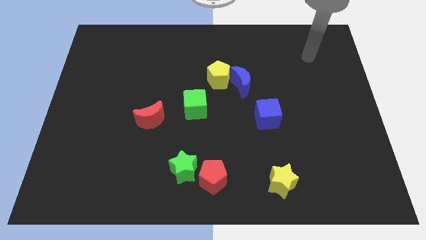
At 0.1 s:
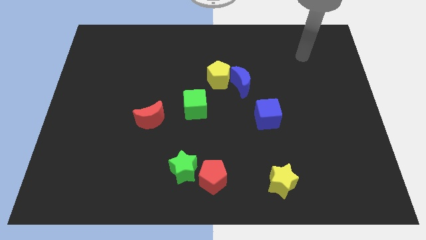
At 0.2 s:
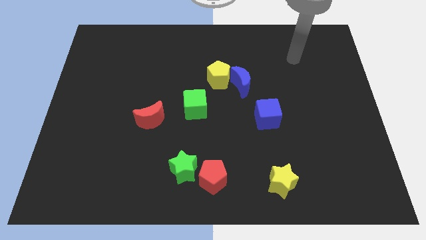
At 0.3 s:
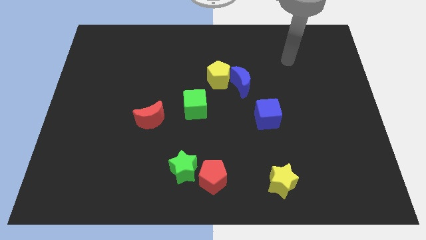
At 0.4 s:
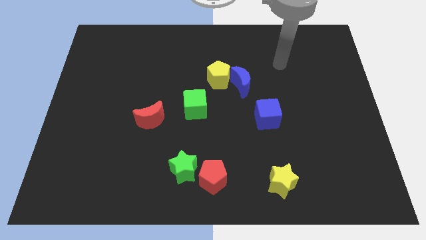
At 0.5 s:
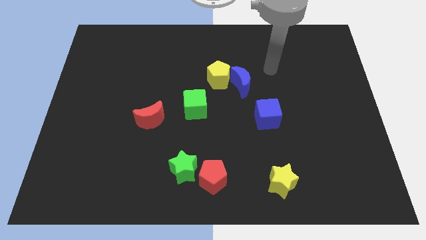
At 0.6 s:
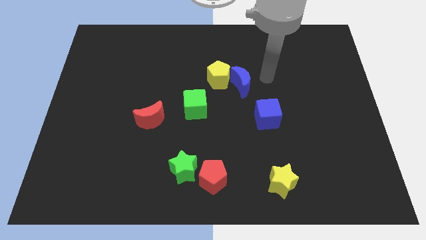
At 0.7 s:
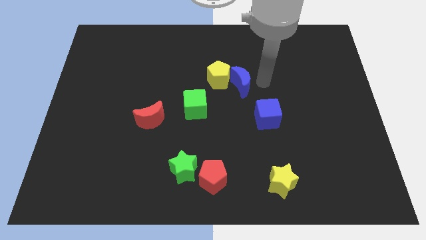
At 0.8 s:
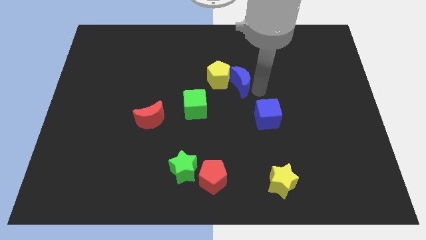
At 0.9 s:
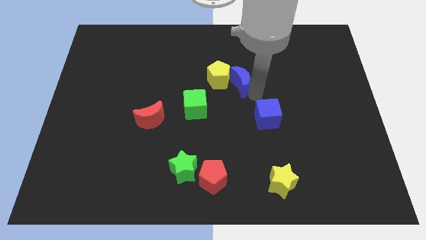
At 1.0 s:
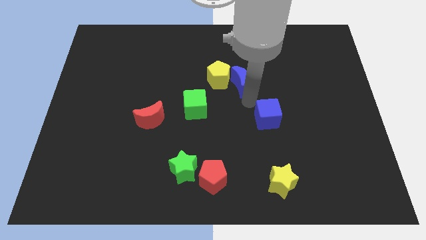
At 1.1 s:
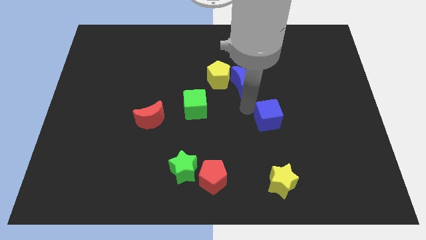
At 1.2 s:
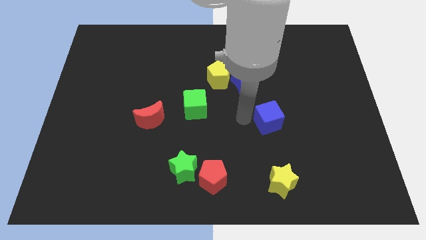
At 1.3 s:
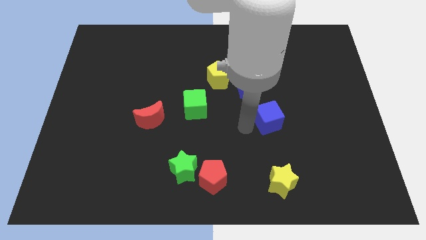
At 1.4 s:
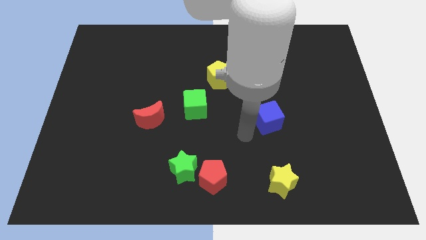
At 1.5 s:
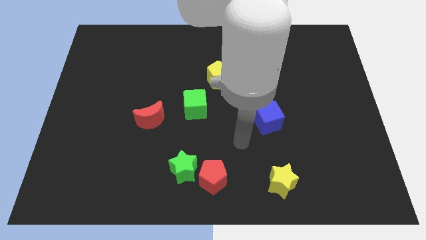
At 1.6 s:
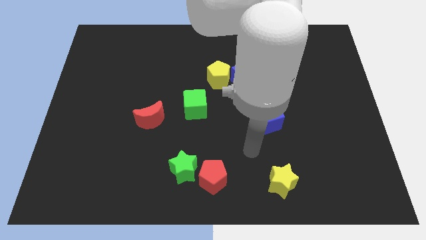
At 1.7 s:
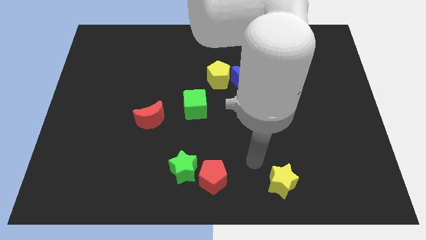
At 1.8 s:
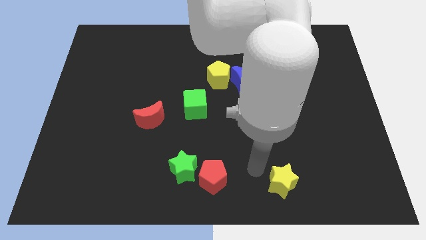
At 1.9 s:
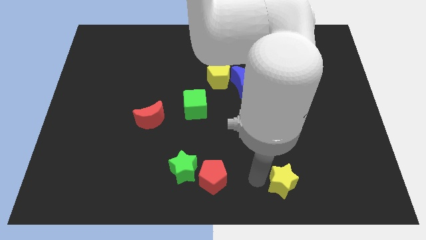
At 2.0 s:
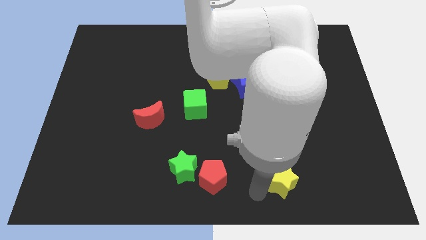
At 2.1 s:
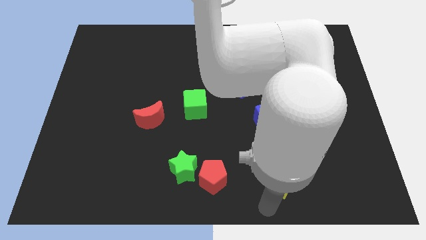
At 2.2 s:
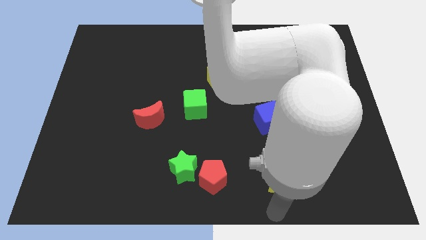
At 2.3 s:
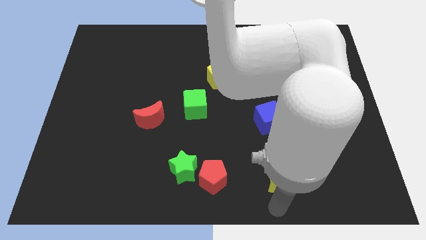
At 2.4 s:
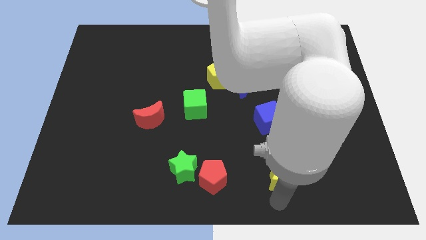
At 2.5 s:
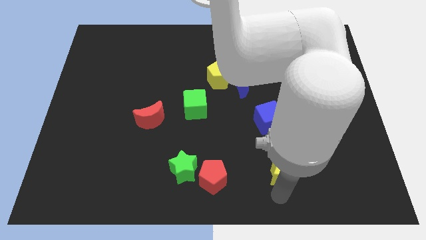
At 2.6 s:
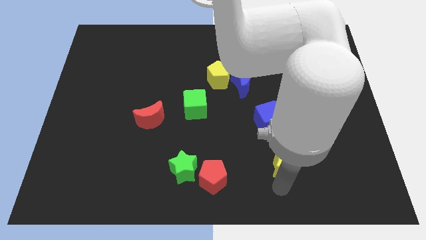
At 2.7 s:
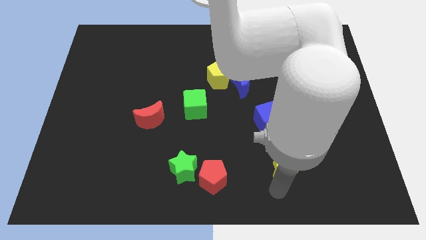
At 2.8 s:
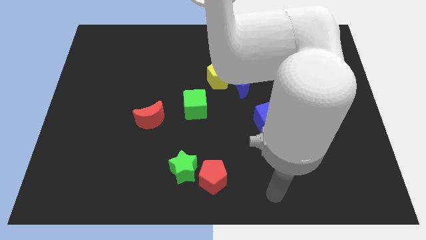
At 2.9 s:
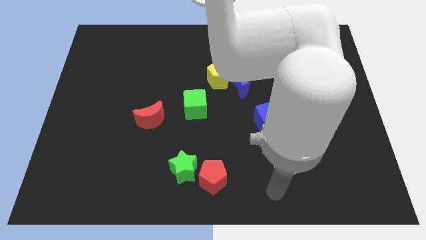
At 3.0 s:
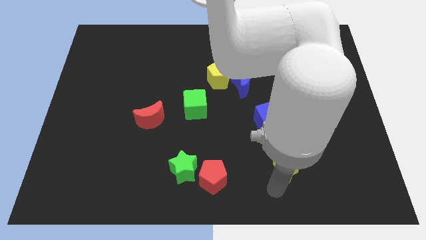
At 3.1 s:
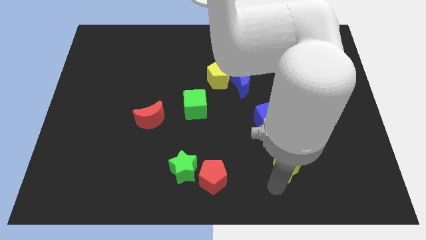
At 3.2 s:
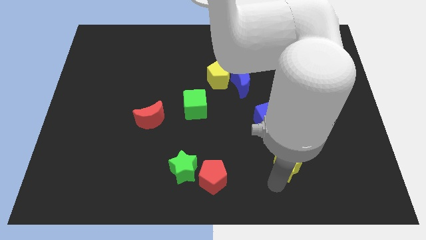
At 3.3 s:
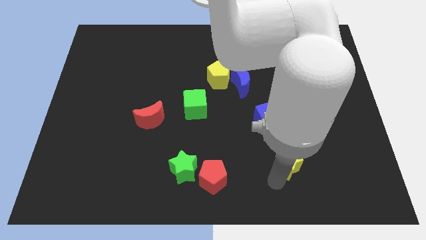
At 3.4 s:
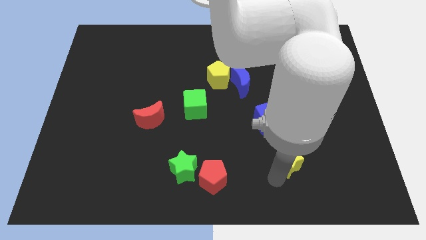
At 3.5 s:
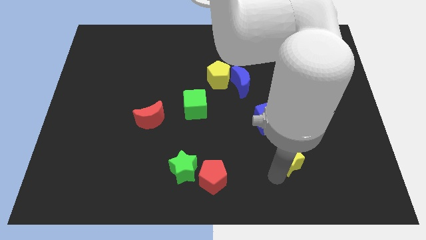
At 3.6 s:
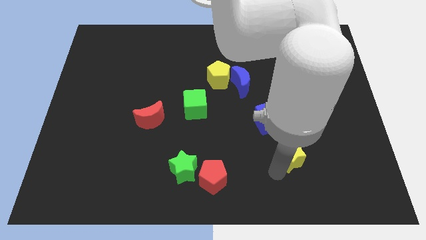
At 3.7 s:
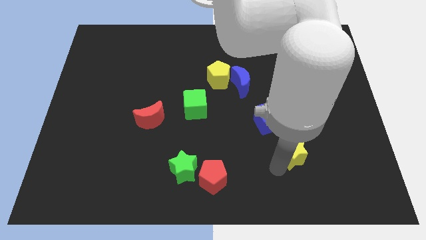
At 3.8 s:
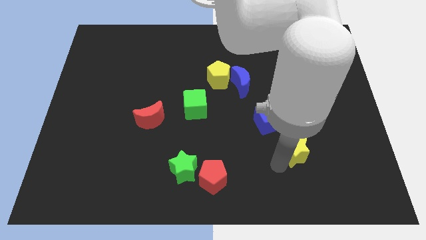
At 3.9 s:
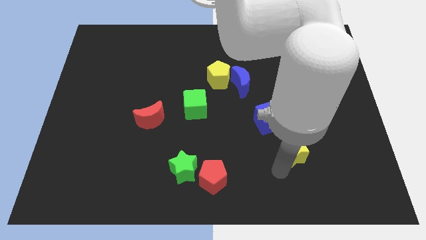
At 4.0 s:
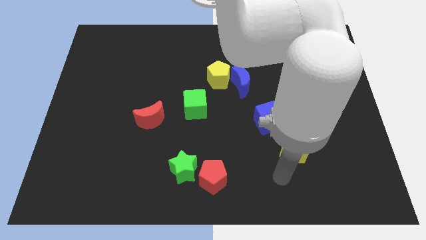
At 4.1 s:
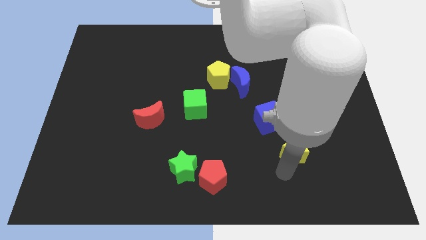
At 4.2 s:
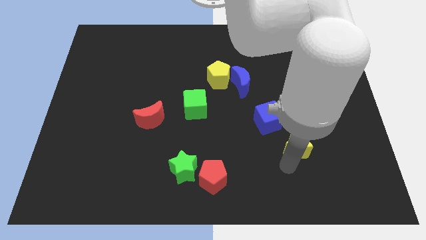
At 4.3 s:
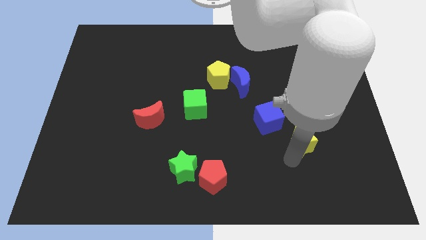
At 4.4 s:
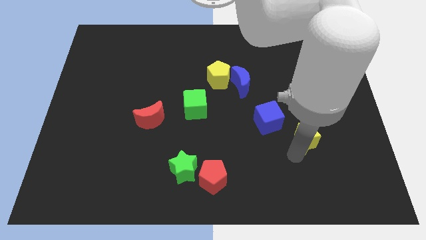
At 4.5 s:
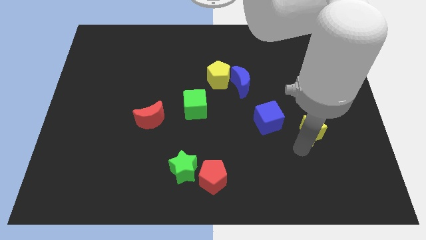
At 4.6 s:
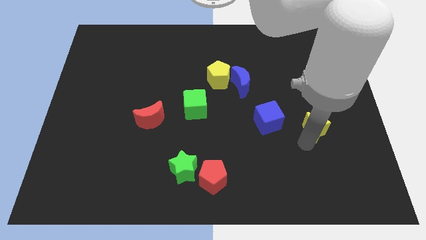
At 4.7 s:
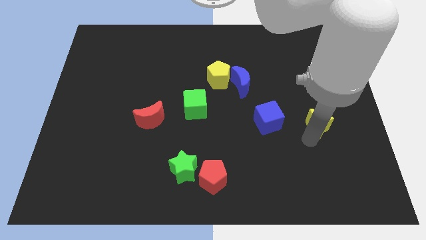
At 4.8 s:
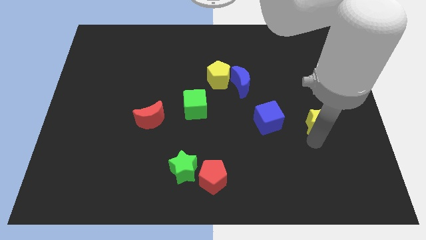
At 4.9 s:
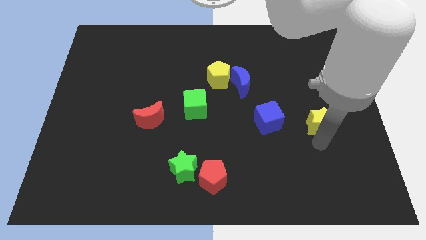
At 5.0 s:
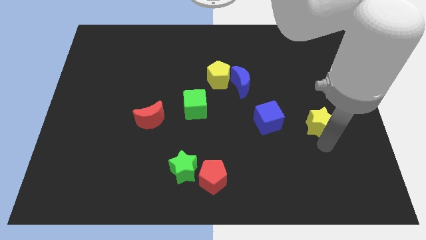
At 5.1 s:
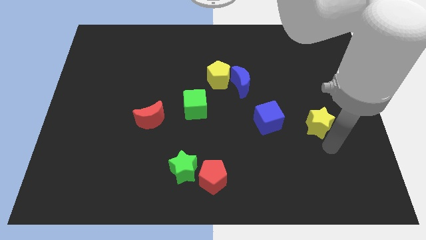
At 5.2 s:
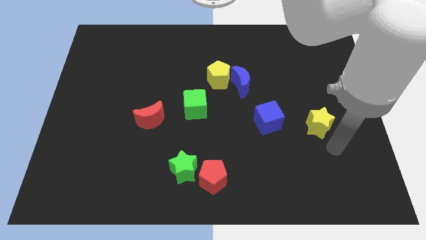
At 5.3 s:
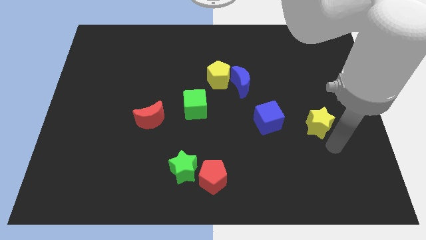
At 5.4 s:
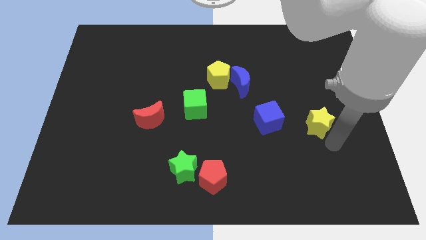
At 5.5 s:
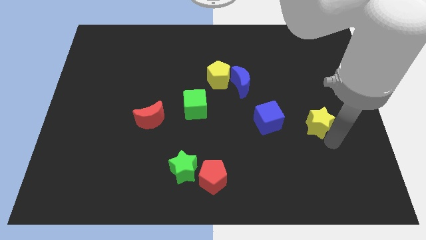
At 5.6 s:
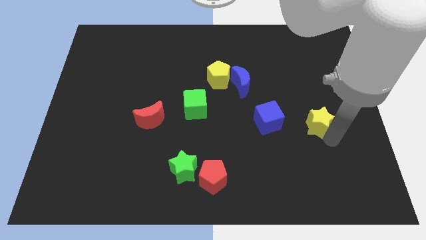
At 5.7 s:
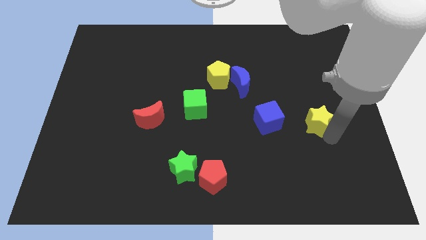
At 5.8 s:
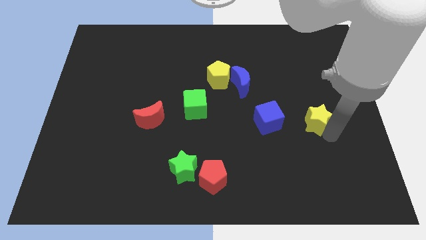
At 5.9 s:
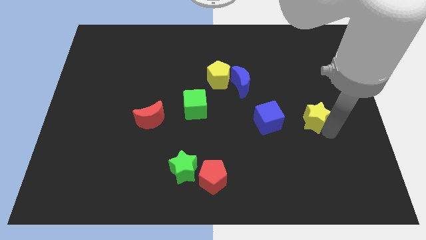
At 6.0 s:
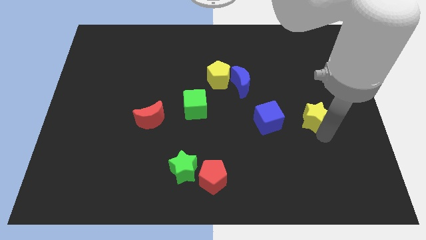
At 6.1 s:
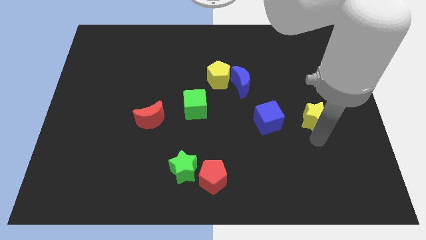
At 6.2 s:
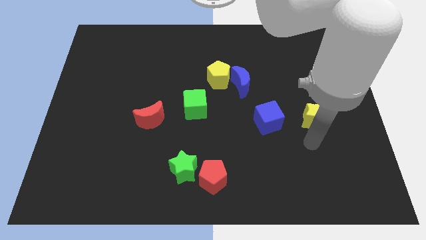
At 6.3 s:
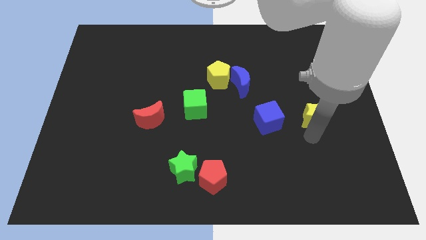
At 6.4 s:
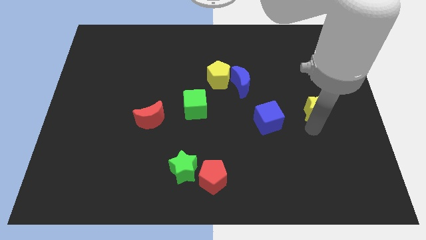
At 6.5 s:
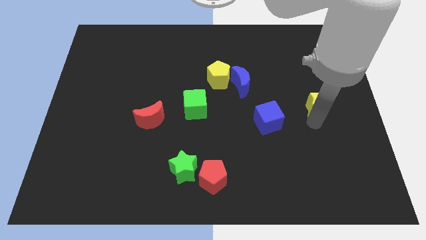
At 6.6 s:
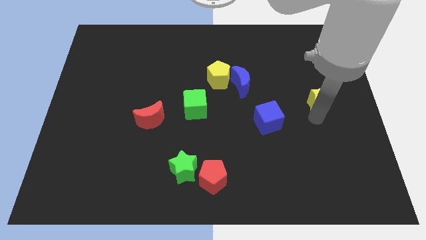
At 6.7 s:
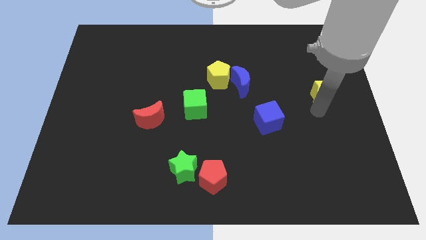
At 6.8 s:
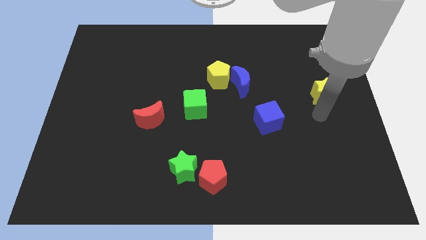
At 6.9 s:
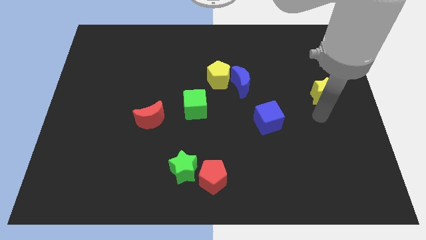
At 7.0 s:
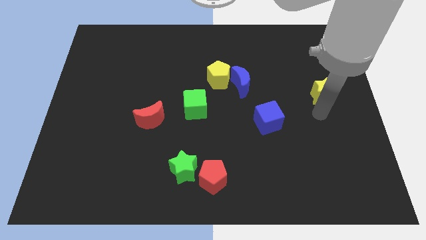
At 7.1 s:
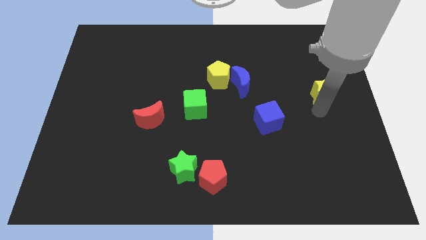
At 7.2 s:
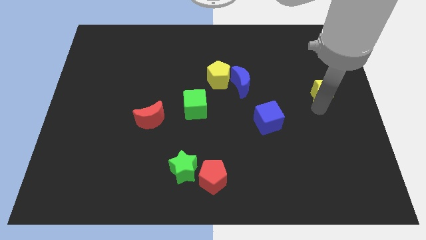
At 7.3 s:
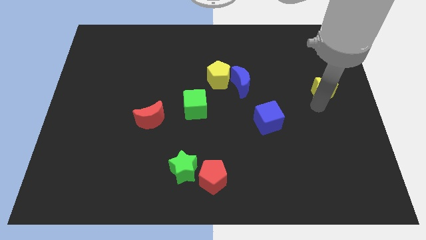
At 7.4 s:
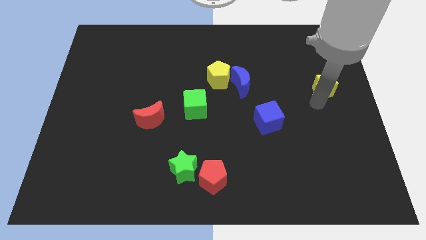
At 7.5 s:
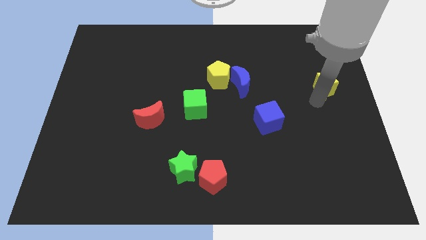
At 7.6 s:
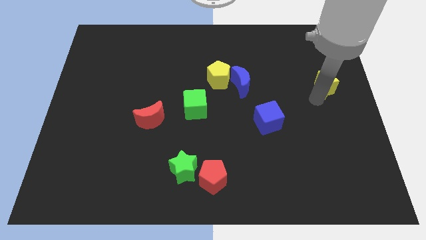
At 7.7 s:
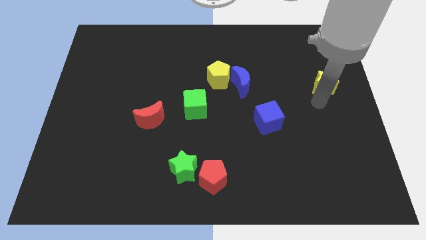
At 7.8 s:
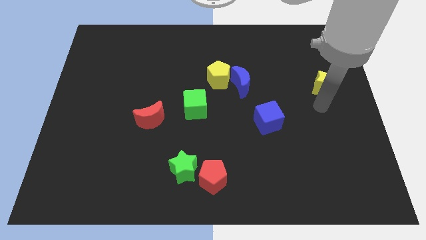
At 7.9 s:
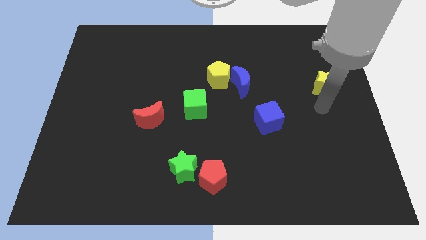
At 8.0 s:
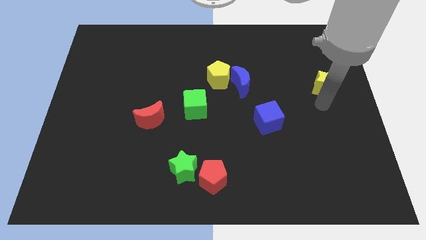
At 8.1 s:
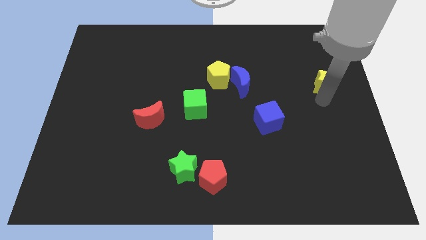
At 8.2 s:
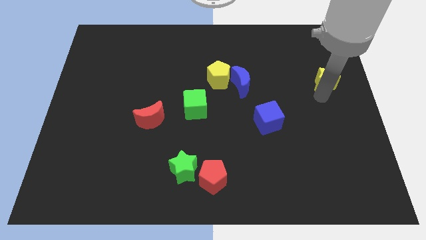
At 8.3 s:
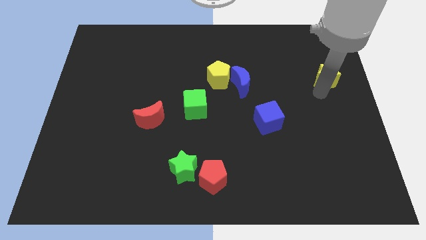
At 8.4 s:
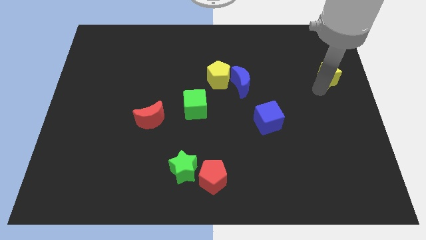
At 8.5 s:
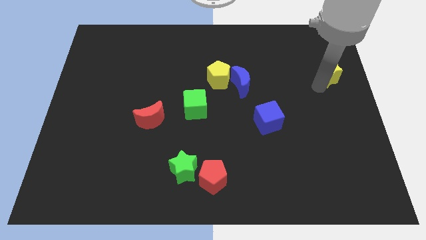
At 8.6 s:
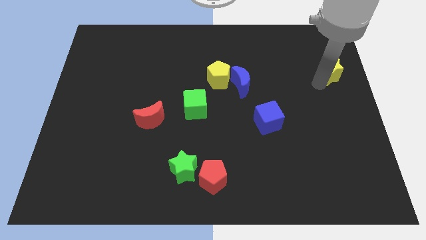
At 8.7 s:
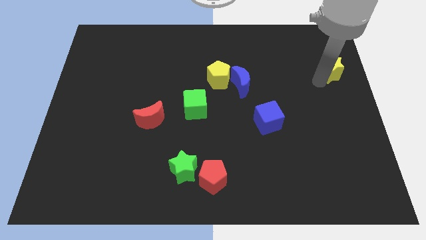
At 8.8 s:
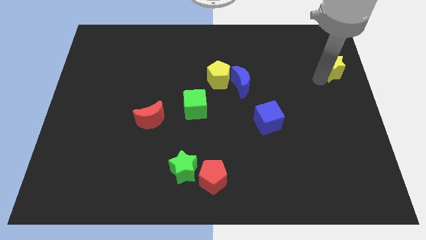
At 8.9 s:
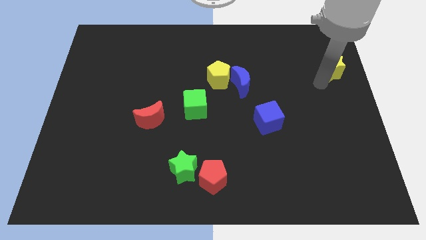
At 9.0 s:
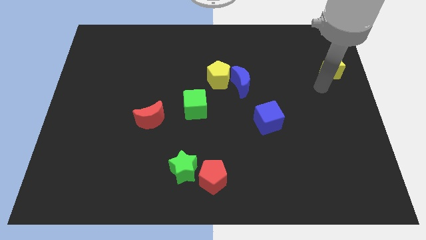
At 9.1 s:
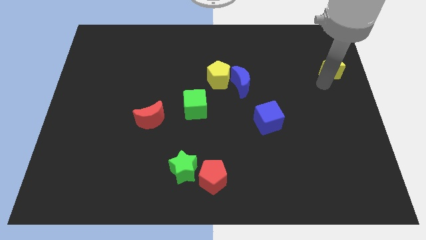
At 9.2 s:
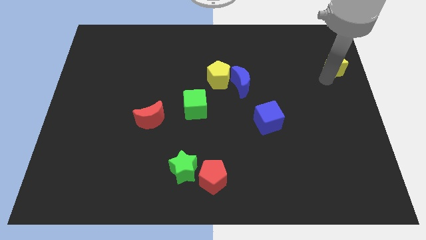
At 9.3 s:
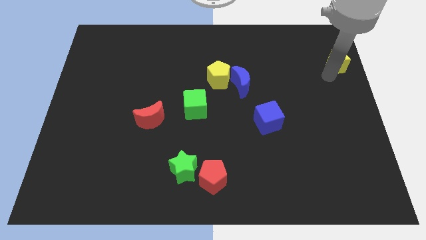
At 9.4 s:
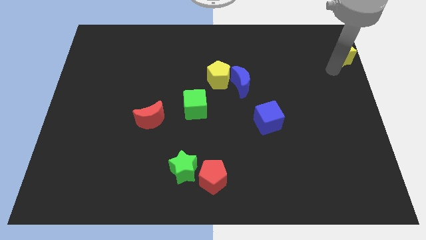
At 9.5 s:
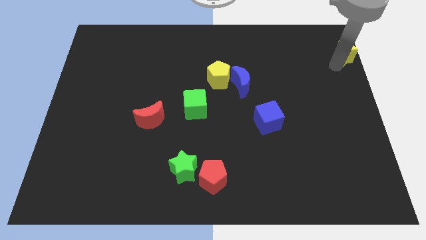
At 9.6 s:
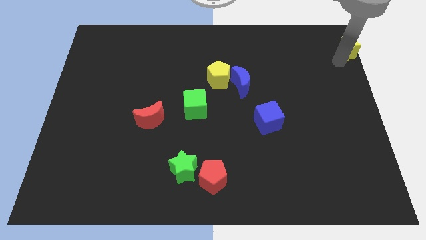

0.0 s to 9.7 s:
slide the yellow star to the upper right corner
